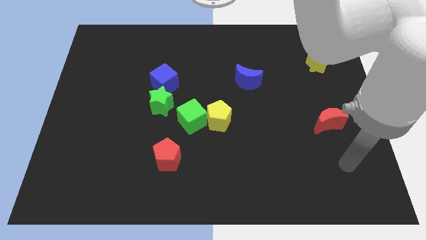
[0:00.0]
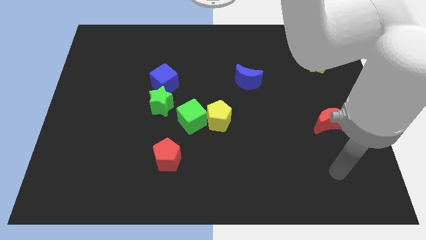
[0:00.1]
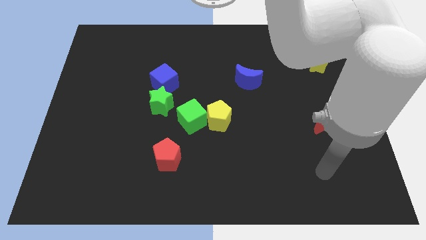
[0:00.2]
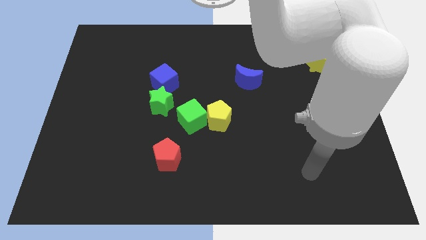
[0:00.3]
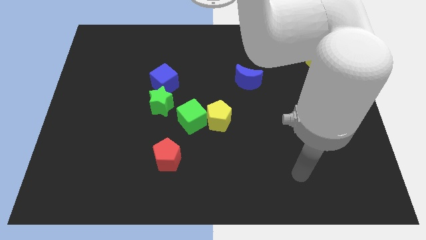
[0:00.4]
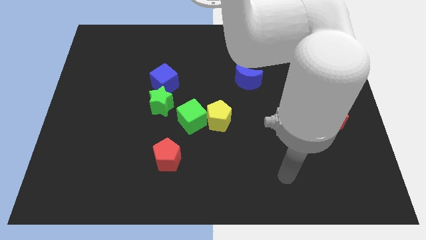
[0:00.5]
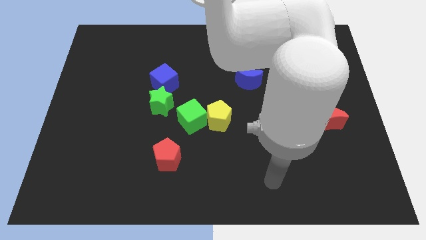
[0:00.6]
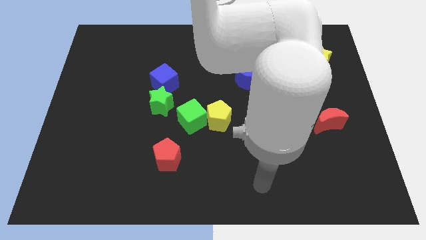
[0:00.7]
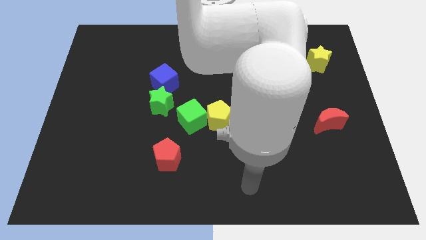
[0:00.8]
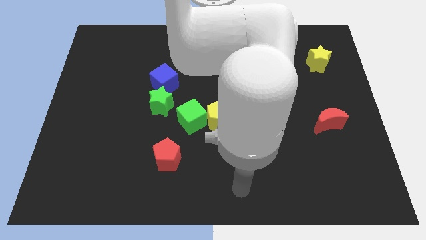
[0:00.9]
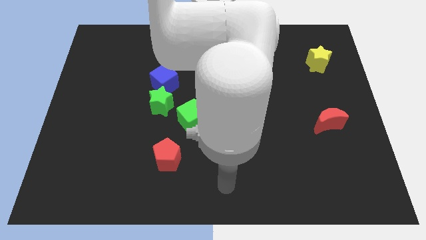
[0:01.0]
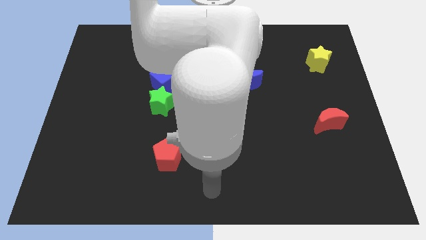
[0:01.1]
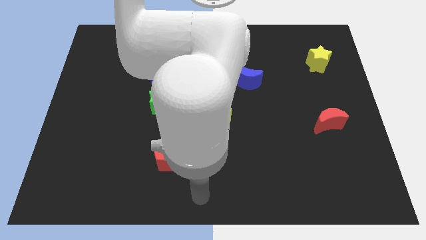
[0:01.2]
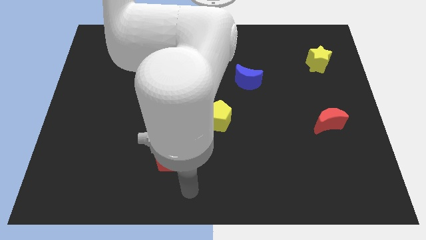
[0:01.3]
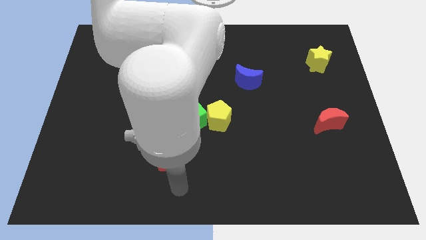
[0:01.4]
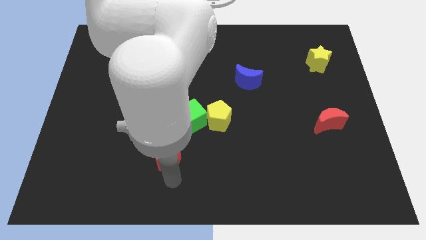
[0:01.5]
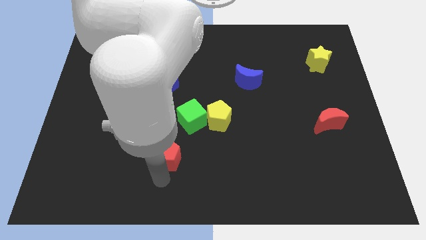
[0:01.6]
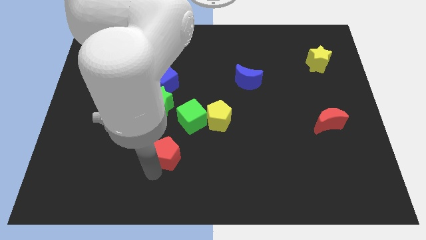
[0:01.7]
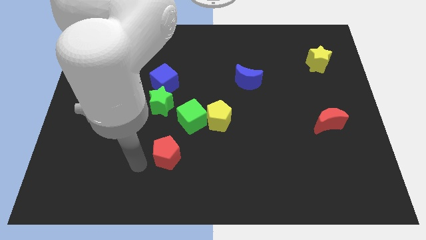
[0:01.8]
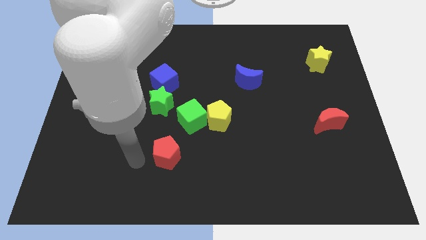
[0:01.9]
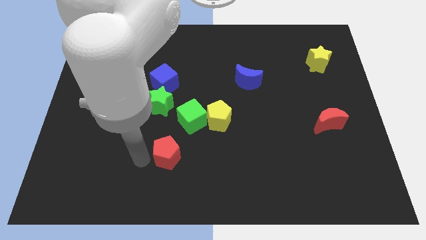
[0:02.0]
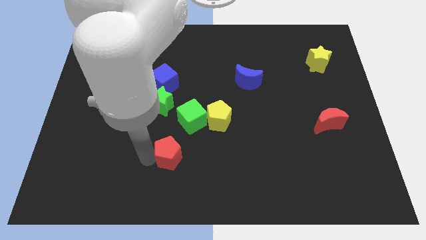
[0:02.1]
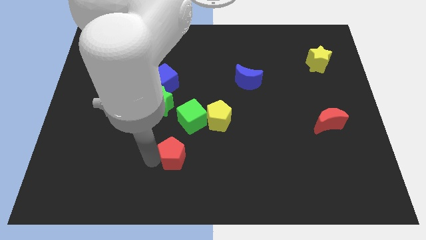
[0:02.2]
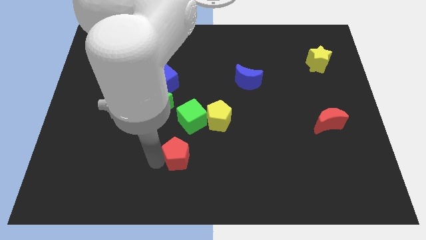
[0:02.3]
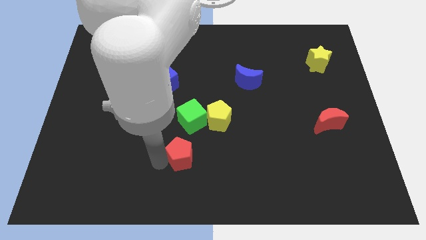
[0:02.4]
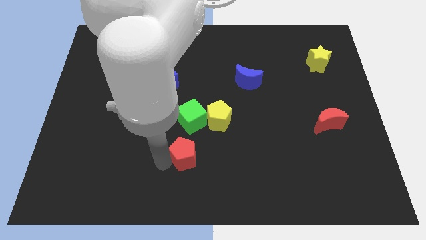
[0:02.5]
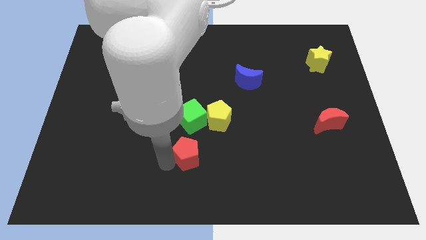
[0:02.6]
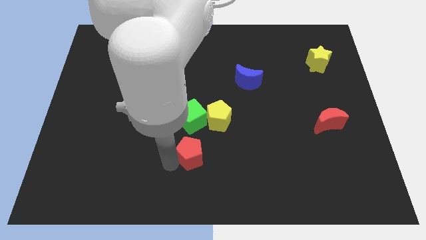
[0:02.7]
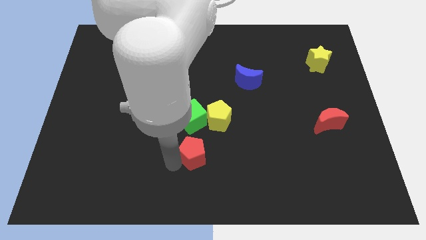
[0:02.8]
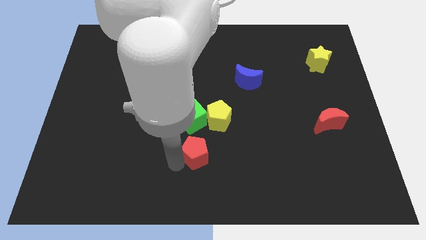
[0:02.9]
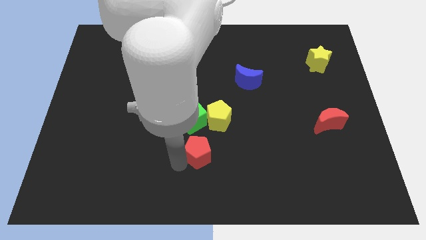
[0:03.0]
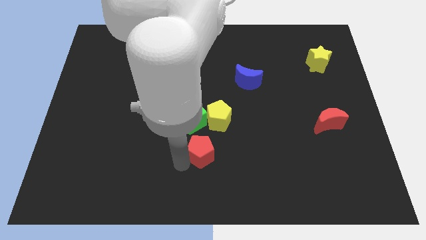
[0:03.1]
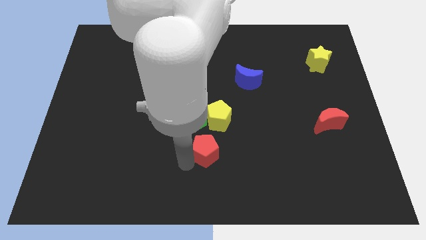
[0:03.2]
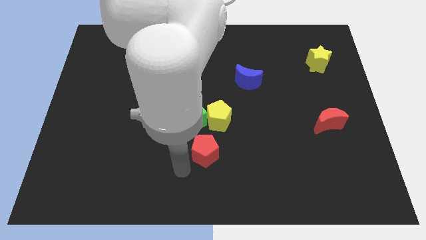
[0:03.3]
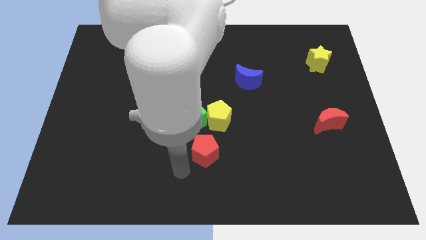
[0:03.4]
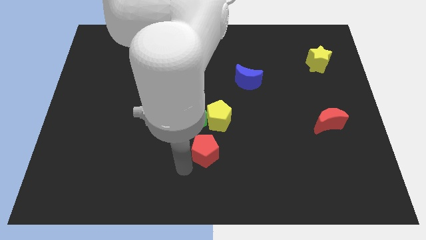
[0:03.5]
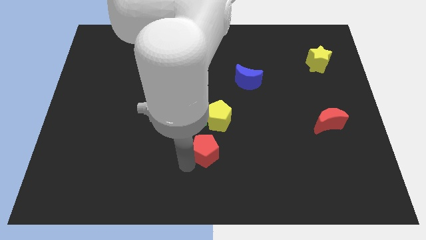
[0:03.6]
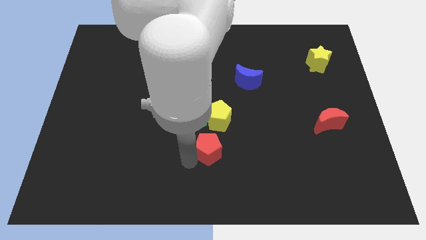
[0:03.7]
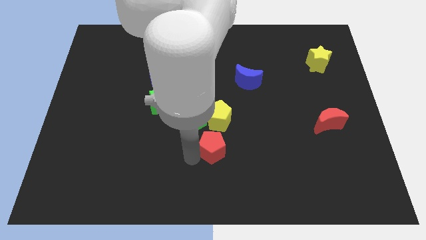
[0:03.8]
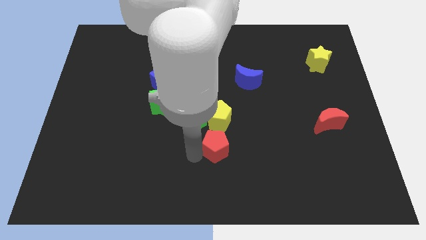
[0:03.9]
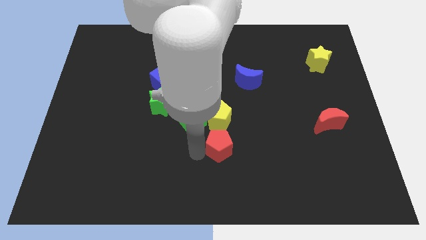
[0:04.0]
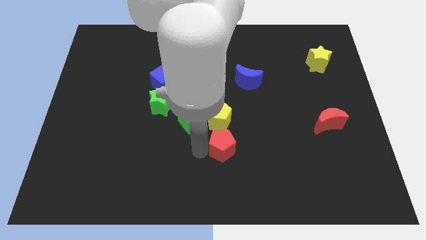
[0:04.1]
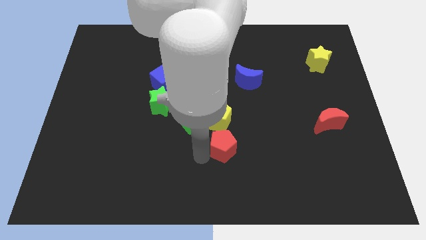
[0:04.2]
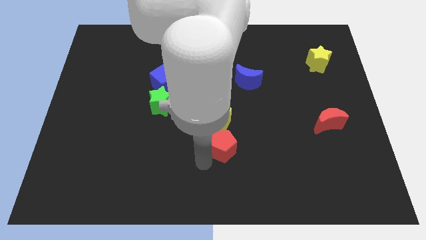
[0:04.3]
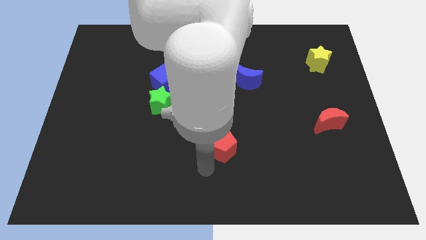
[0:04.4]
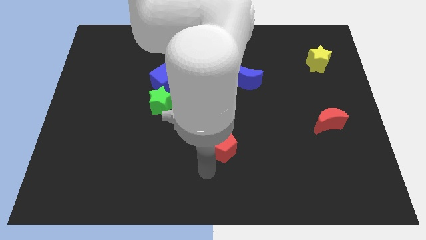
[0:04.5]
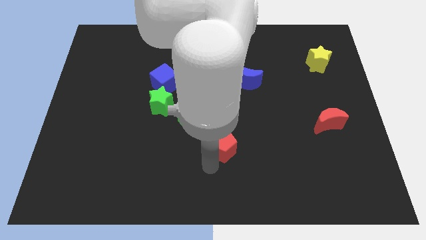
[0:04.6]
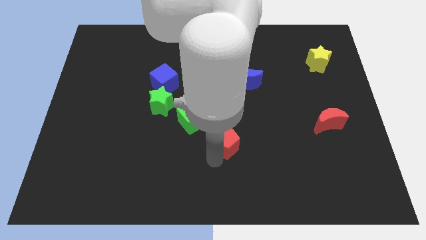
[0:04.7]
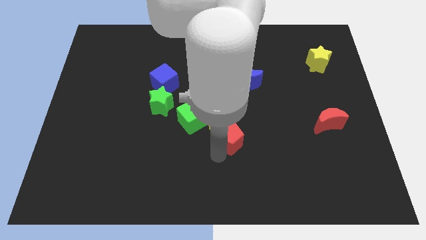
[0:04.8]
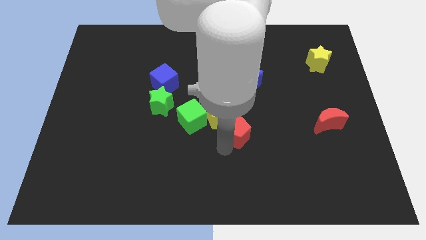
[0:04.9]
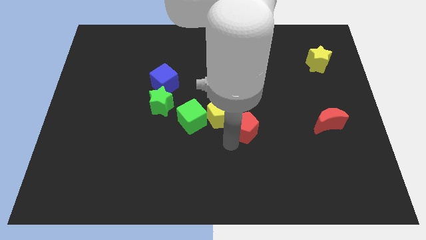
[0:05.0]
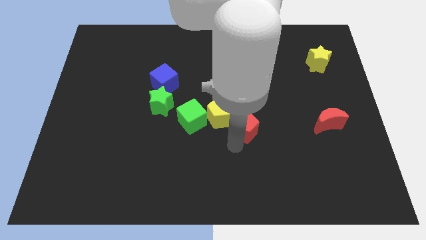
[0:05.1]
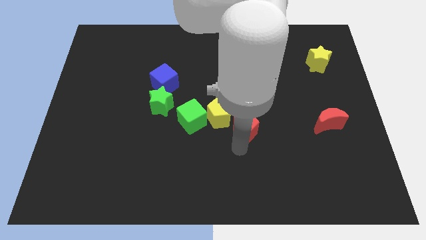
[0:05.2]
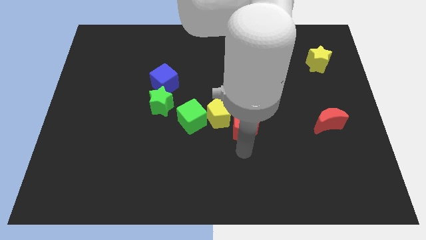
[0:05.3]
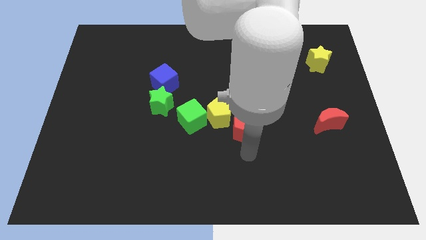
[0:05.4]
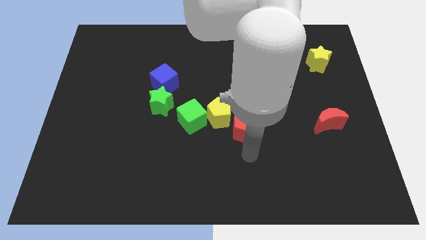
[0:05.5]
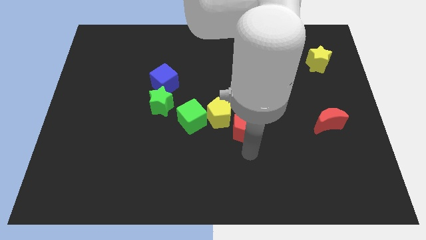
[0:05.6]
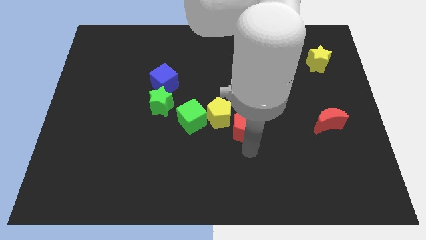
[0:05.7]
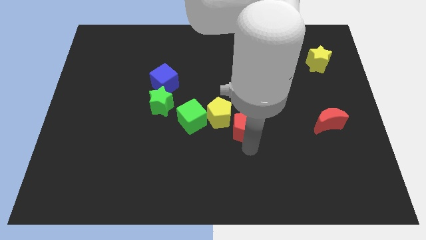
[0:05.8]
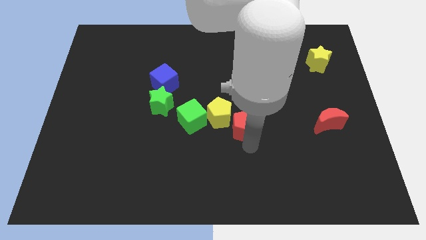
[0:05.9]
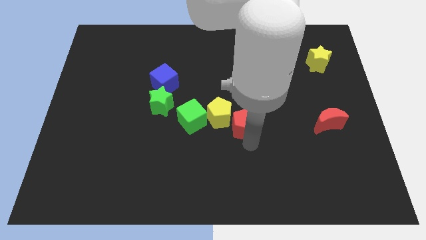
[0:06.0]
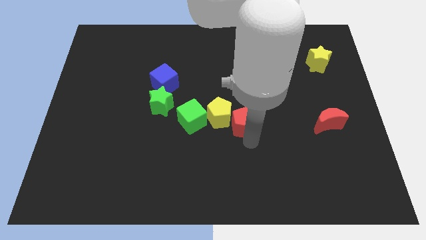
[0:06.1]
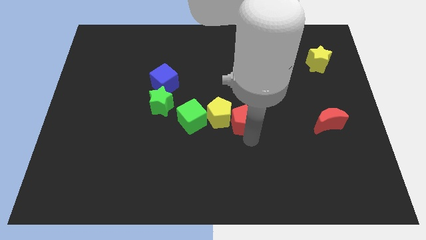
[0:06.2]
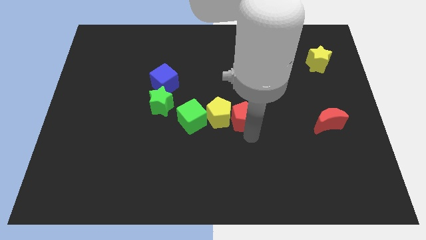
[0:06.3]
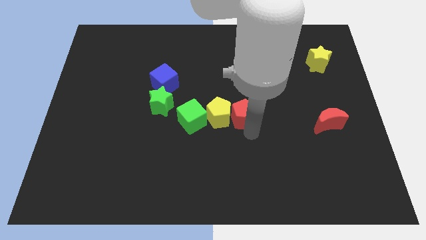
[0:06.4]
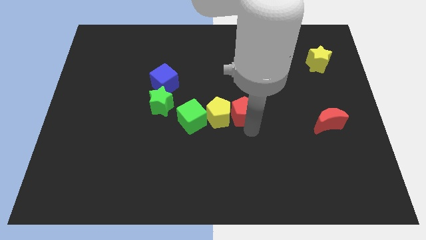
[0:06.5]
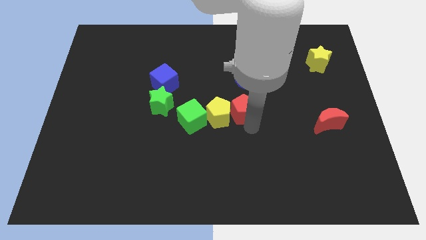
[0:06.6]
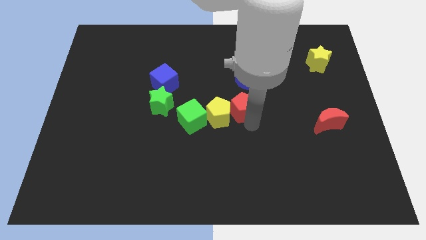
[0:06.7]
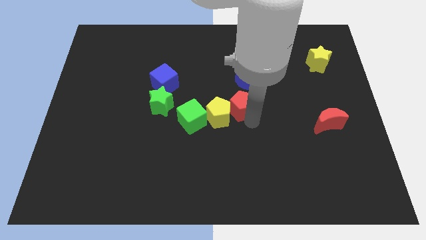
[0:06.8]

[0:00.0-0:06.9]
move the red pentagon diagonally down and to the left of the blue moon
